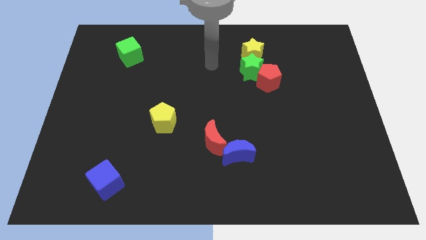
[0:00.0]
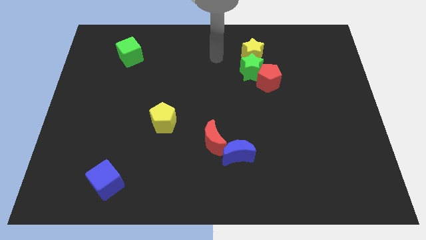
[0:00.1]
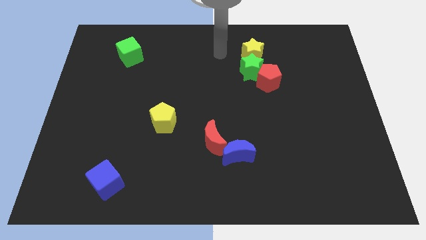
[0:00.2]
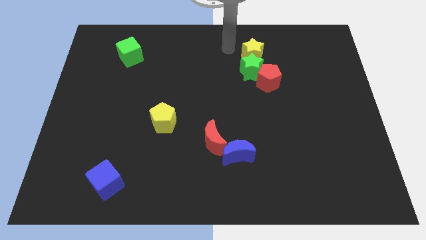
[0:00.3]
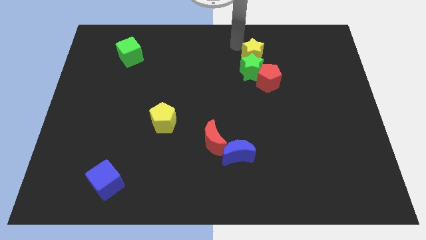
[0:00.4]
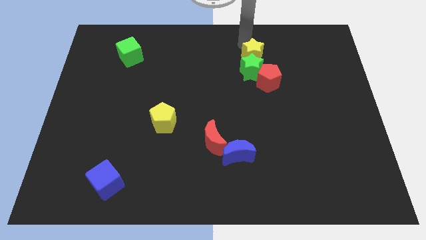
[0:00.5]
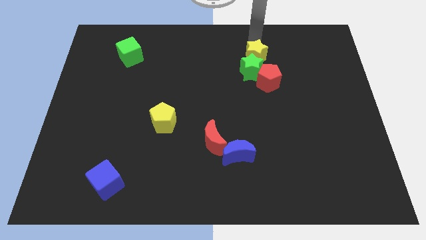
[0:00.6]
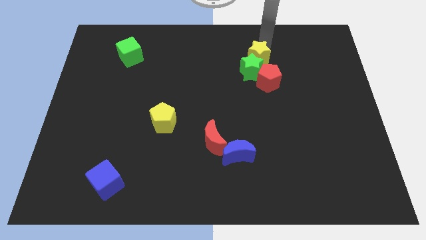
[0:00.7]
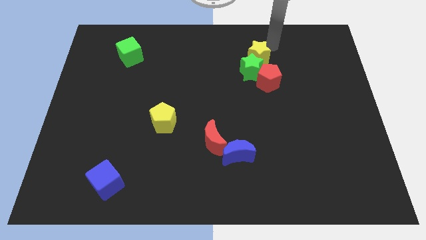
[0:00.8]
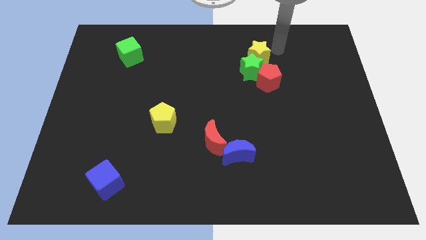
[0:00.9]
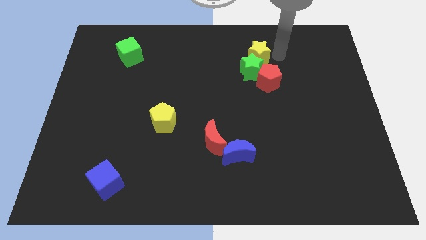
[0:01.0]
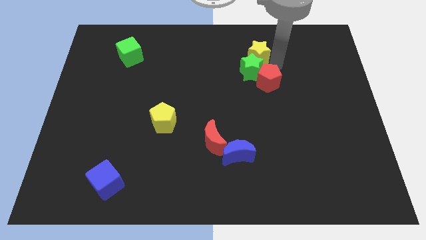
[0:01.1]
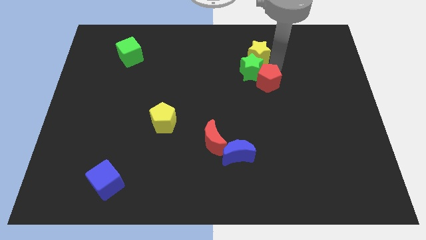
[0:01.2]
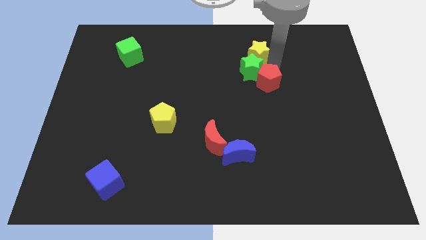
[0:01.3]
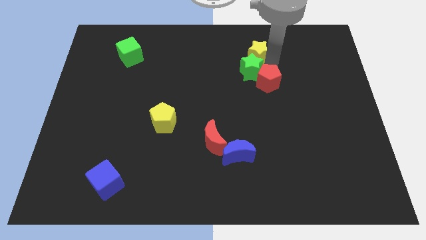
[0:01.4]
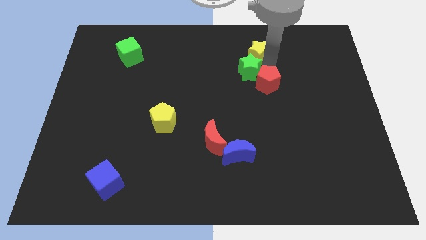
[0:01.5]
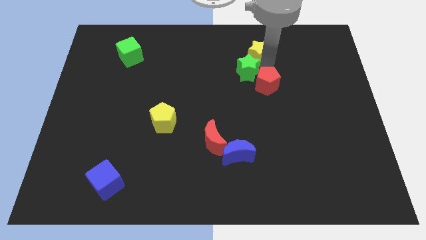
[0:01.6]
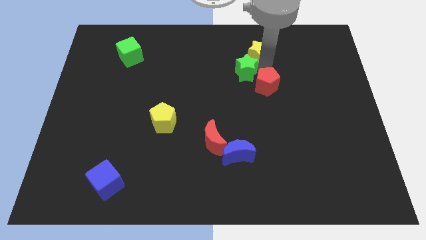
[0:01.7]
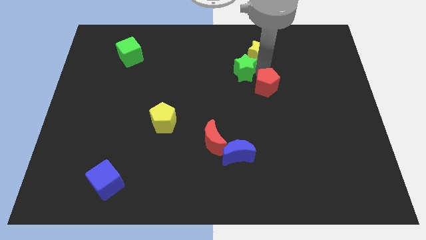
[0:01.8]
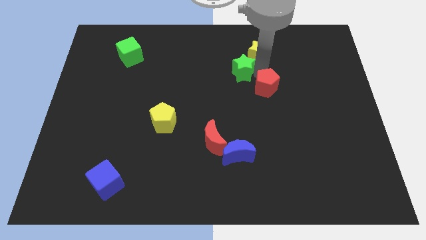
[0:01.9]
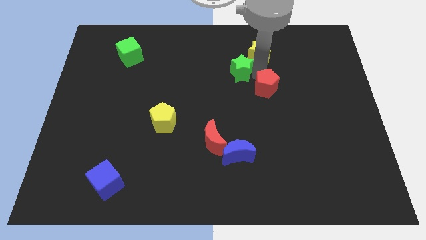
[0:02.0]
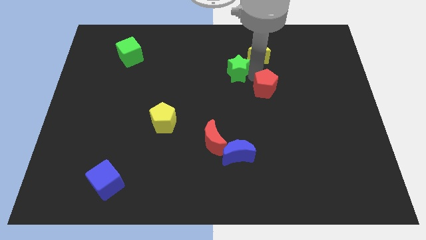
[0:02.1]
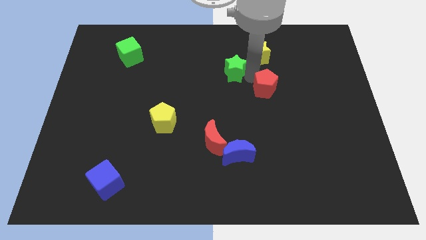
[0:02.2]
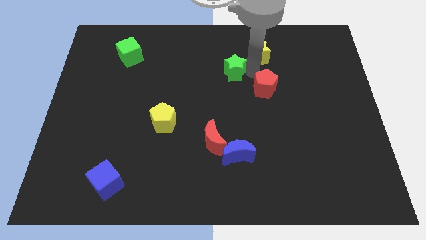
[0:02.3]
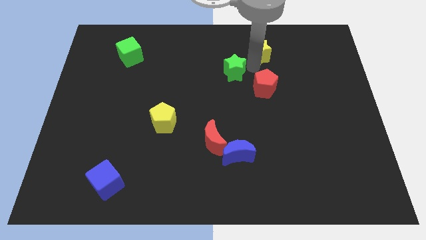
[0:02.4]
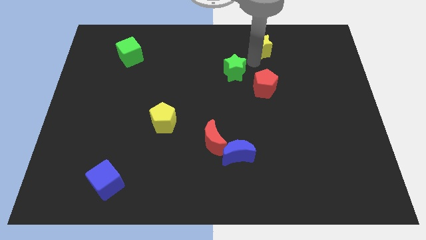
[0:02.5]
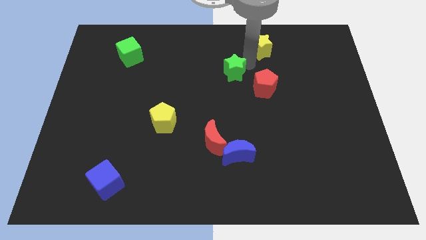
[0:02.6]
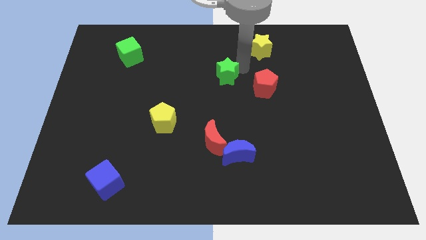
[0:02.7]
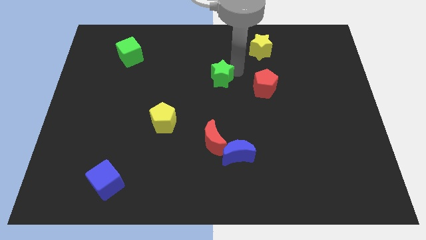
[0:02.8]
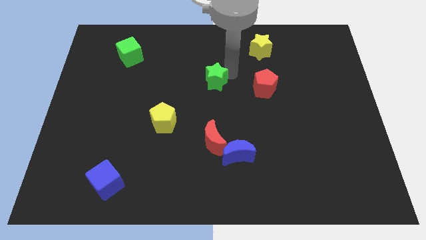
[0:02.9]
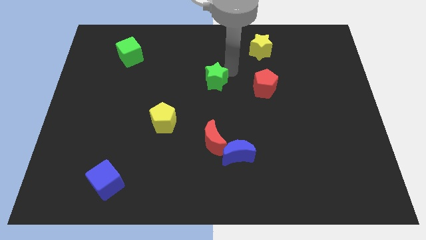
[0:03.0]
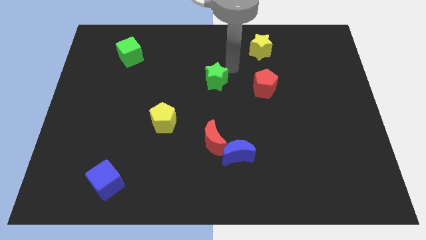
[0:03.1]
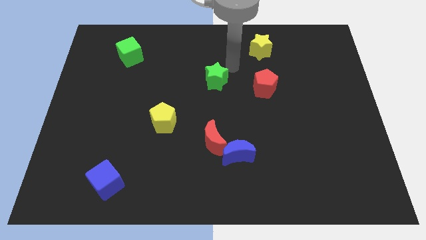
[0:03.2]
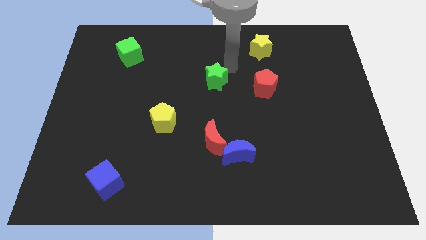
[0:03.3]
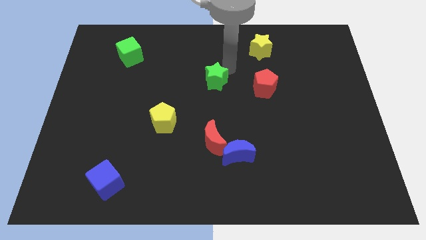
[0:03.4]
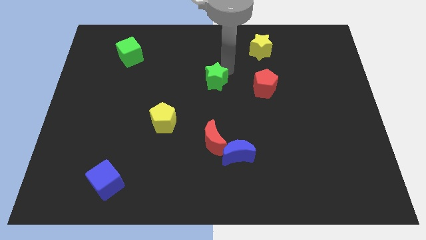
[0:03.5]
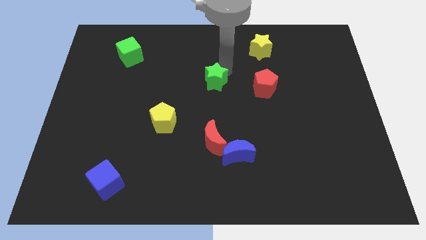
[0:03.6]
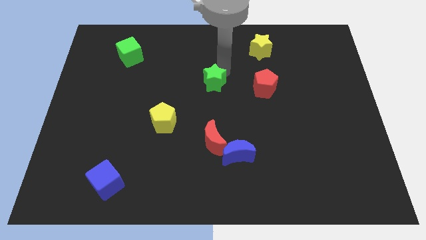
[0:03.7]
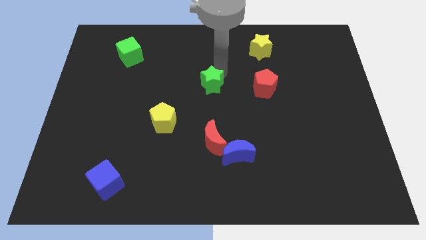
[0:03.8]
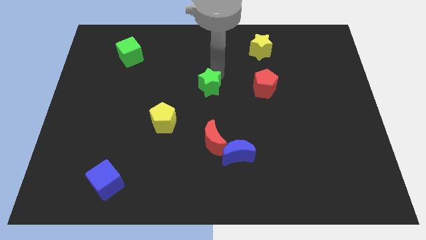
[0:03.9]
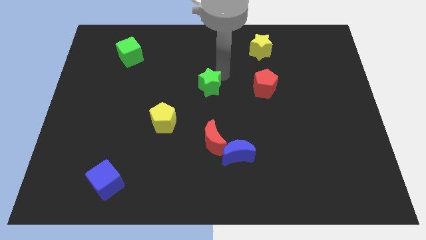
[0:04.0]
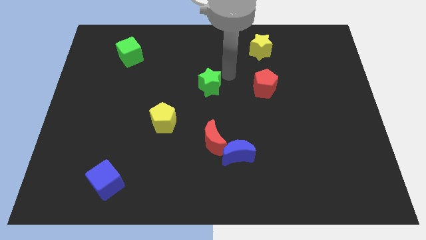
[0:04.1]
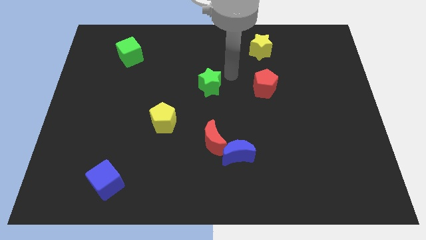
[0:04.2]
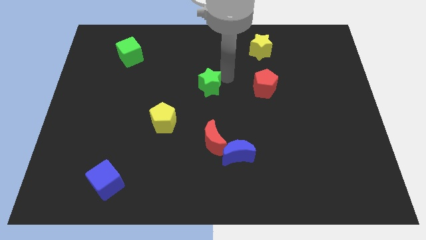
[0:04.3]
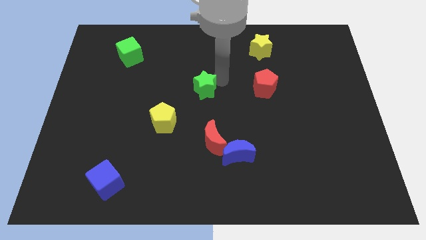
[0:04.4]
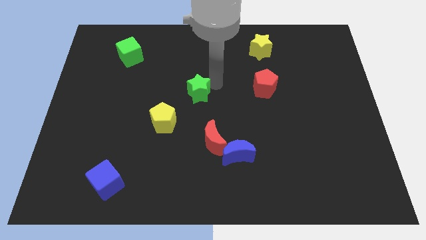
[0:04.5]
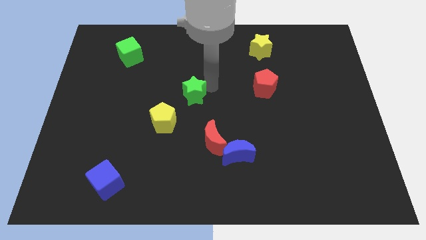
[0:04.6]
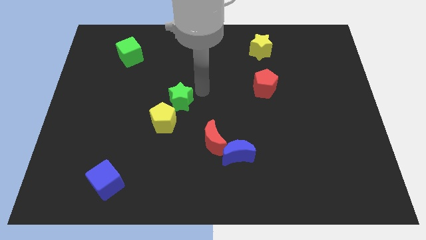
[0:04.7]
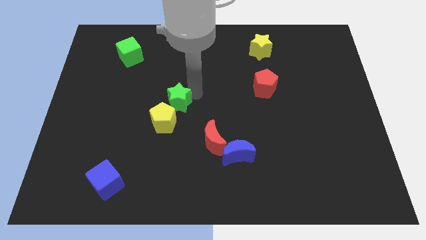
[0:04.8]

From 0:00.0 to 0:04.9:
move the green star close to the yellow pentagon

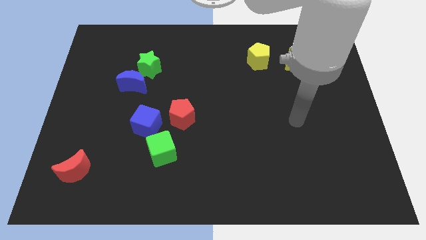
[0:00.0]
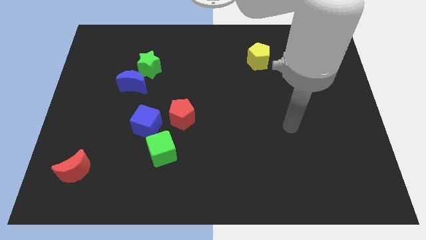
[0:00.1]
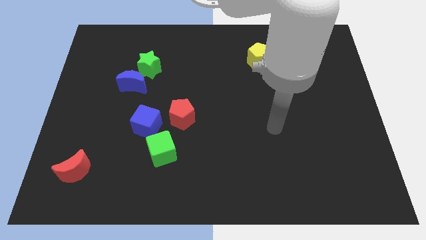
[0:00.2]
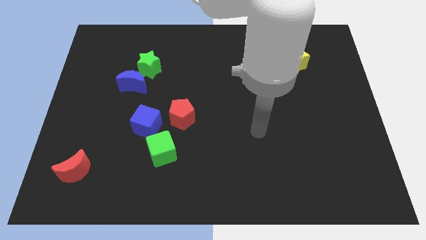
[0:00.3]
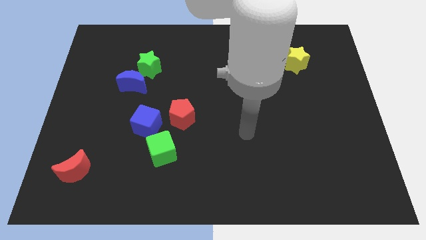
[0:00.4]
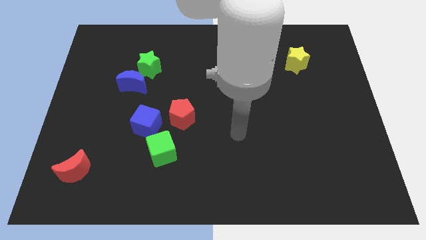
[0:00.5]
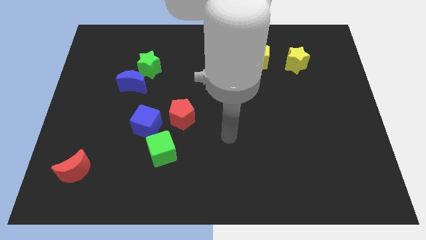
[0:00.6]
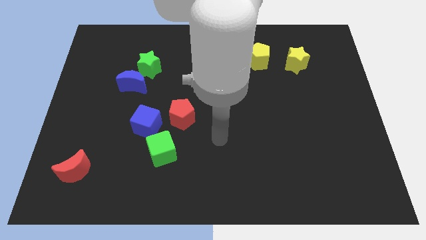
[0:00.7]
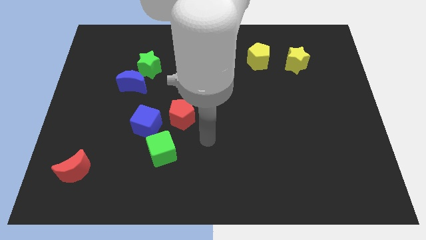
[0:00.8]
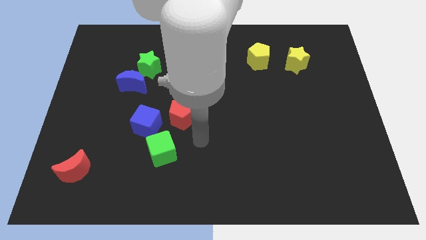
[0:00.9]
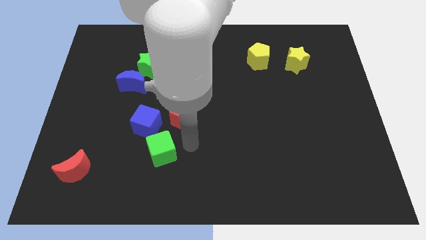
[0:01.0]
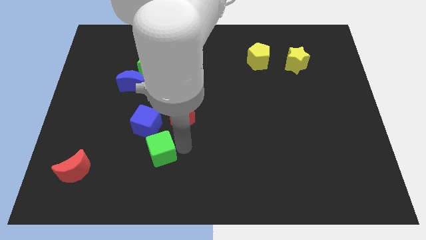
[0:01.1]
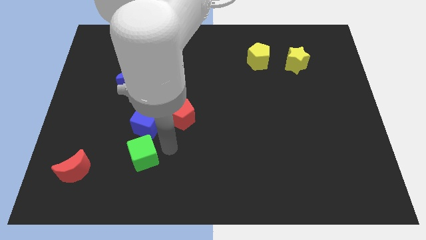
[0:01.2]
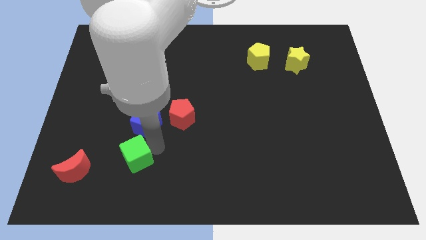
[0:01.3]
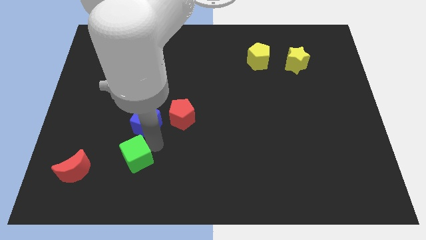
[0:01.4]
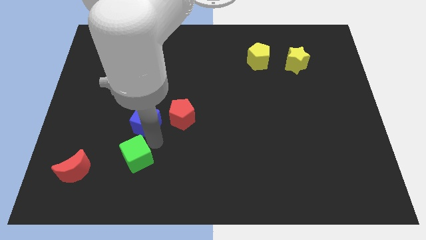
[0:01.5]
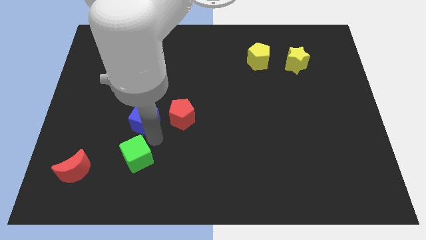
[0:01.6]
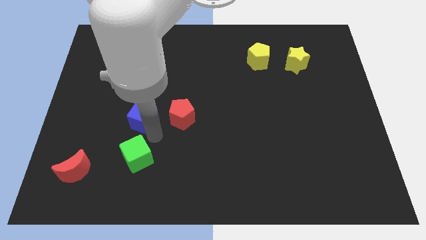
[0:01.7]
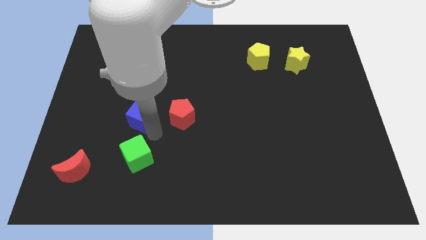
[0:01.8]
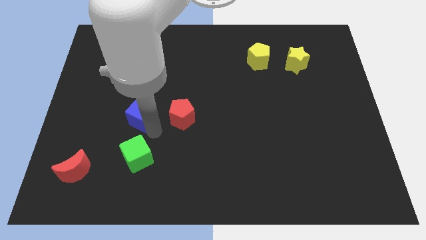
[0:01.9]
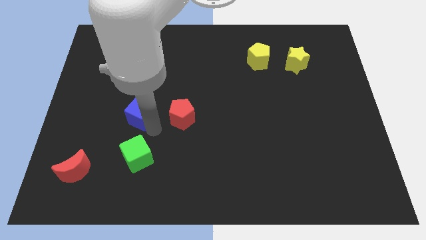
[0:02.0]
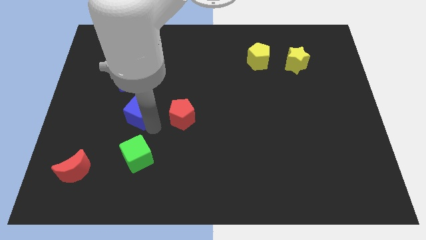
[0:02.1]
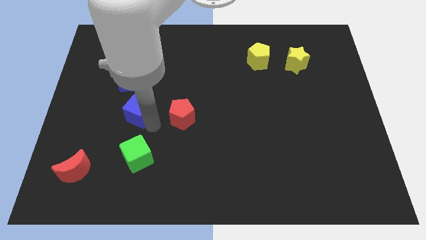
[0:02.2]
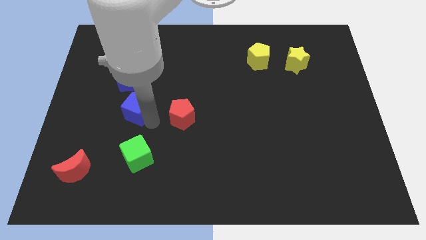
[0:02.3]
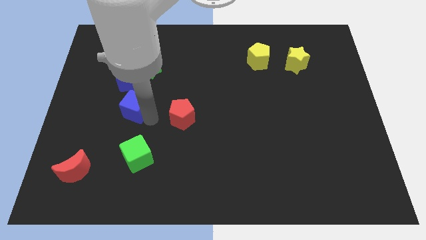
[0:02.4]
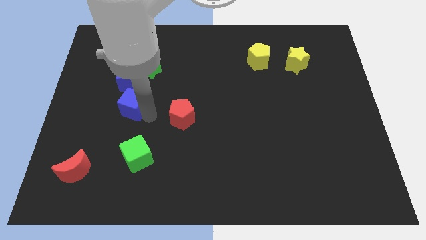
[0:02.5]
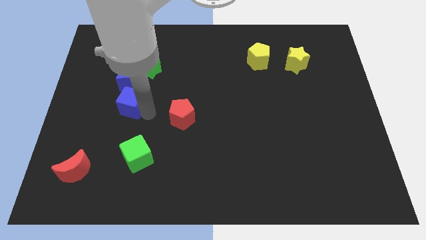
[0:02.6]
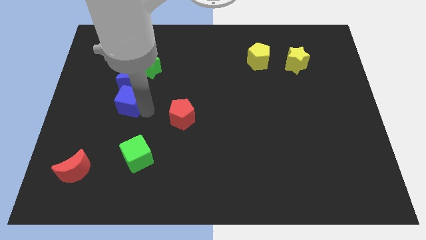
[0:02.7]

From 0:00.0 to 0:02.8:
slide the blue cube to the blue moon
